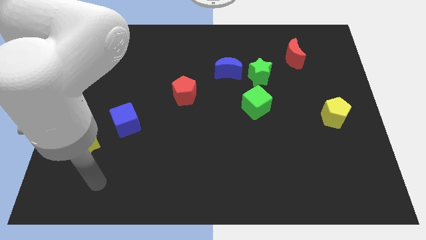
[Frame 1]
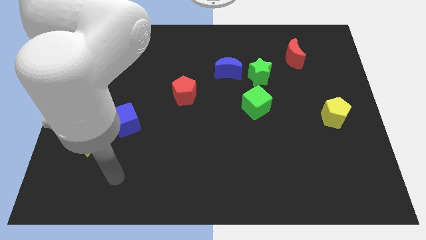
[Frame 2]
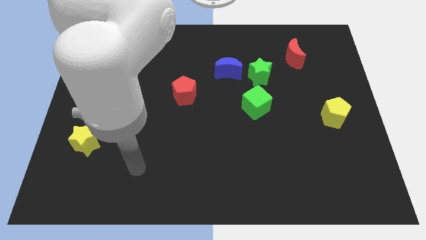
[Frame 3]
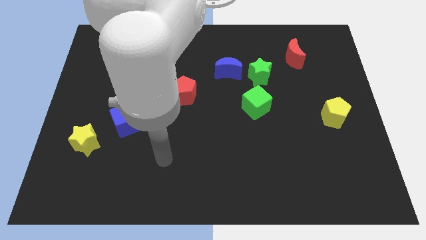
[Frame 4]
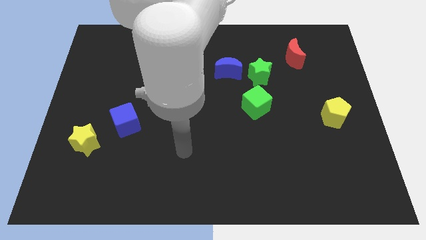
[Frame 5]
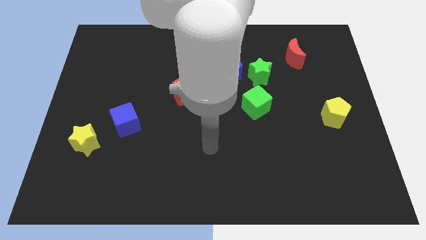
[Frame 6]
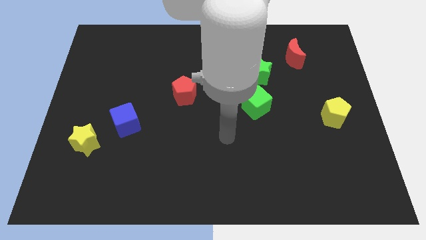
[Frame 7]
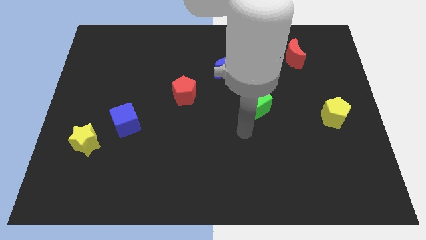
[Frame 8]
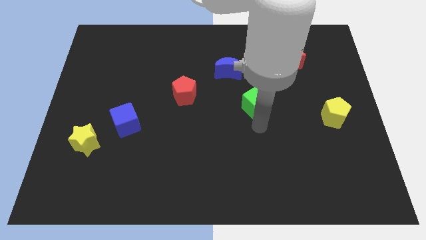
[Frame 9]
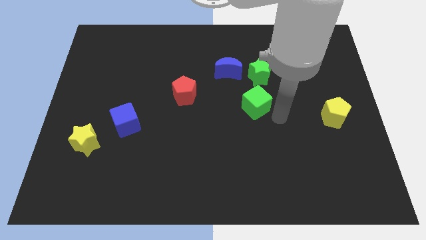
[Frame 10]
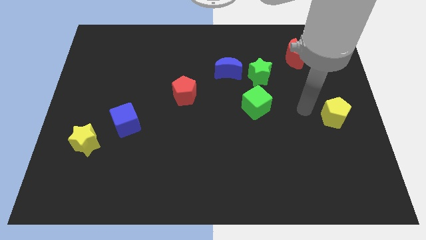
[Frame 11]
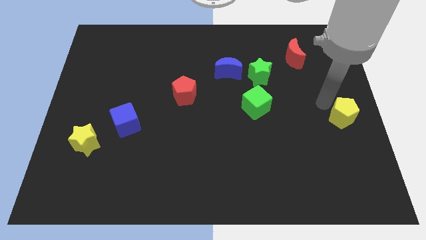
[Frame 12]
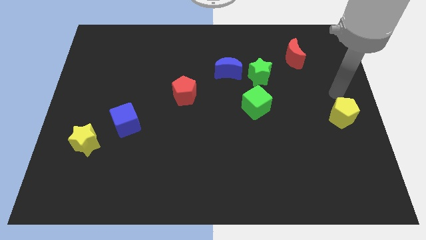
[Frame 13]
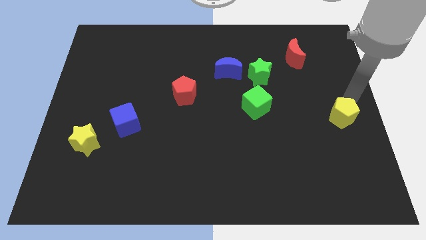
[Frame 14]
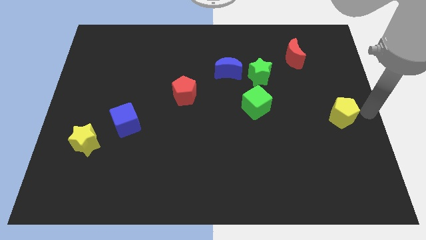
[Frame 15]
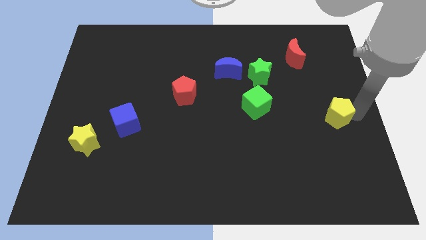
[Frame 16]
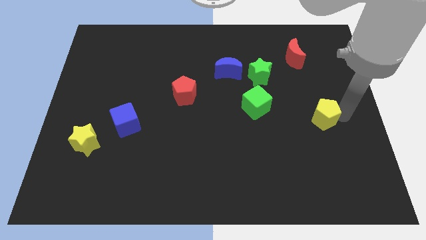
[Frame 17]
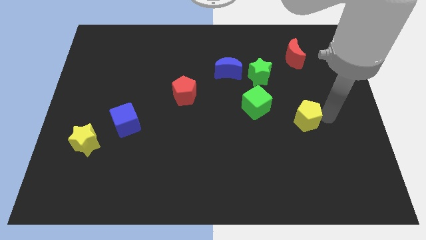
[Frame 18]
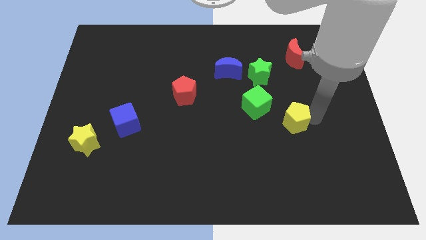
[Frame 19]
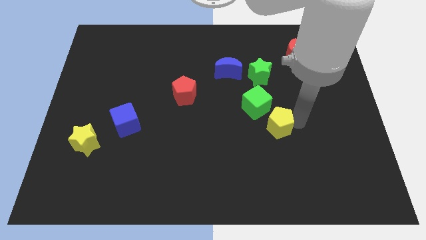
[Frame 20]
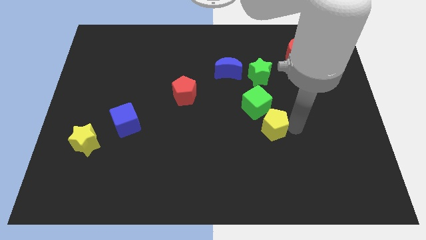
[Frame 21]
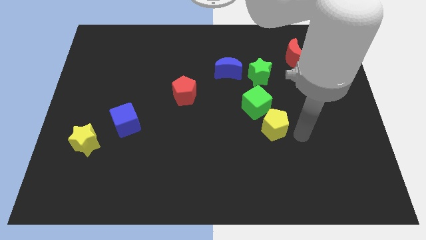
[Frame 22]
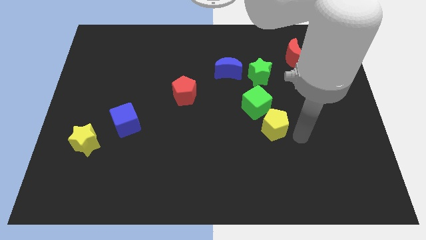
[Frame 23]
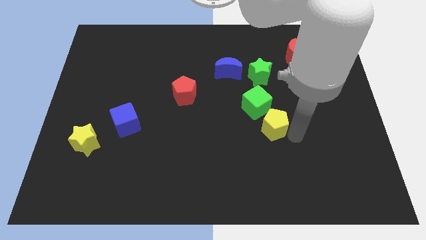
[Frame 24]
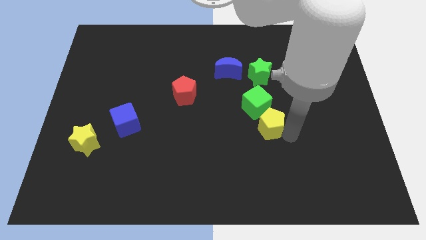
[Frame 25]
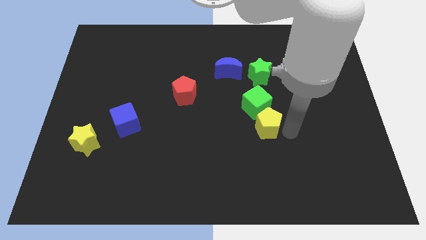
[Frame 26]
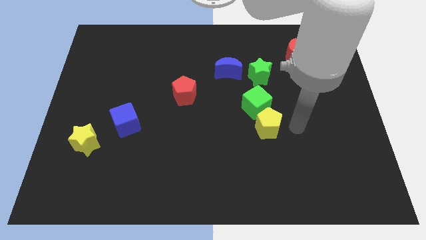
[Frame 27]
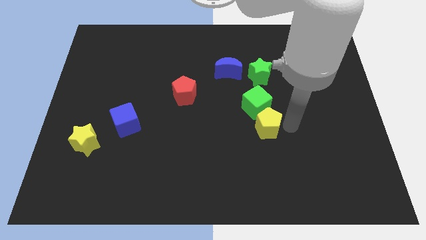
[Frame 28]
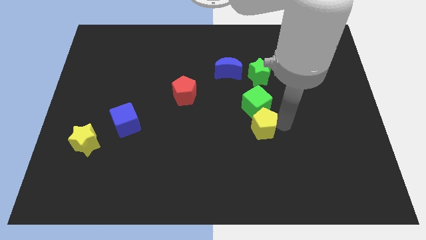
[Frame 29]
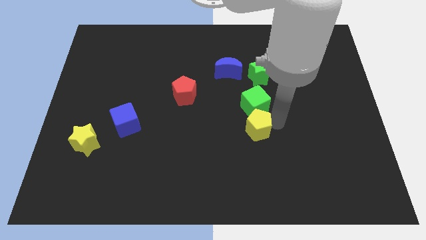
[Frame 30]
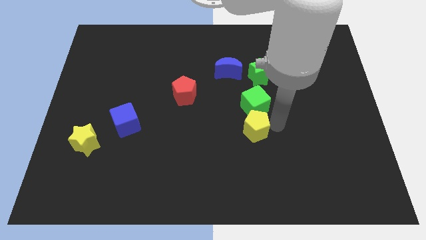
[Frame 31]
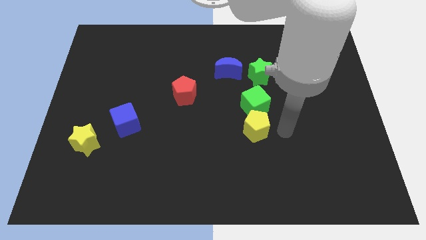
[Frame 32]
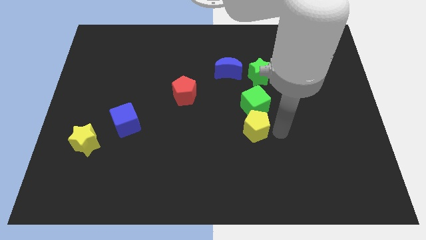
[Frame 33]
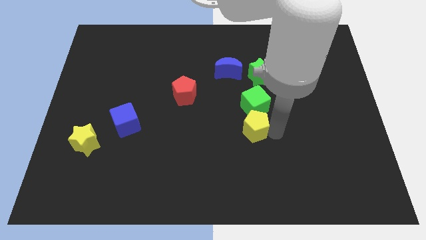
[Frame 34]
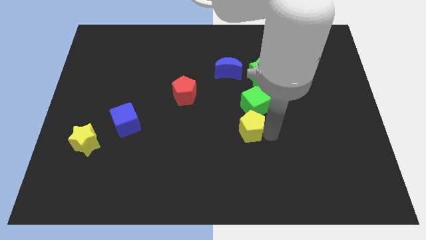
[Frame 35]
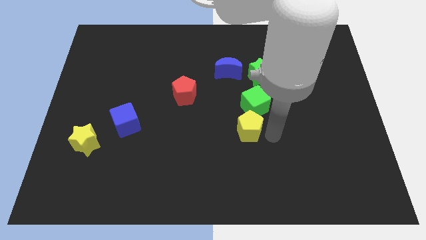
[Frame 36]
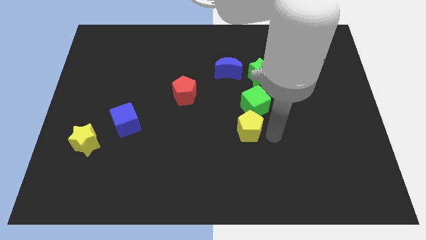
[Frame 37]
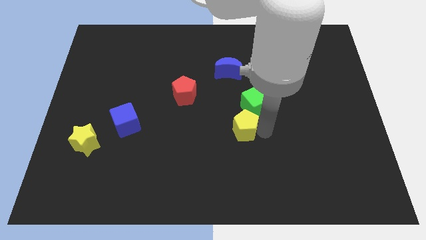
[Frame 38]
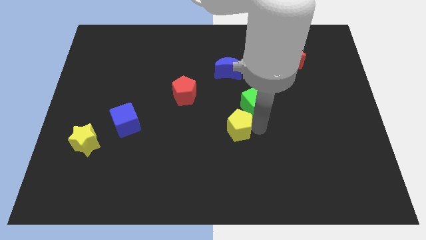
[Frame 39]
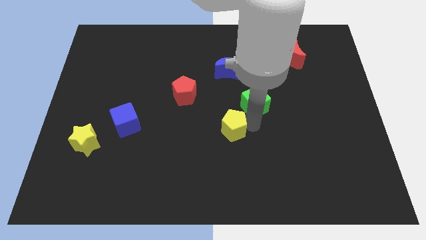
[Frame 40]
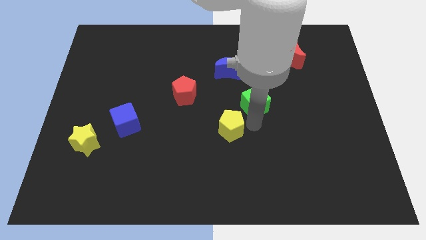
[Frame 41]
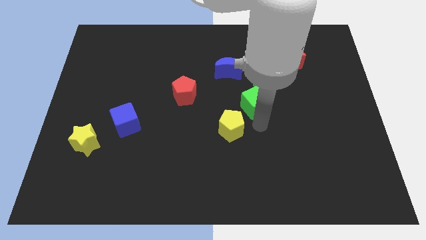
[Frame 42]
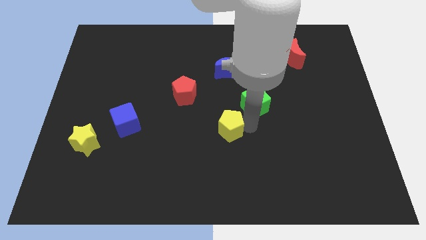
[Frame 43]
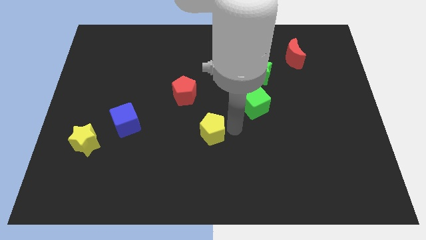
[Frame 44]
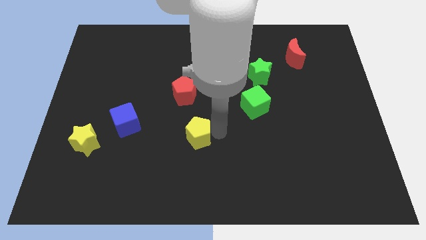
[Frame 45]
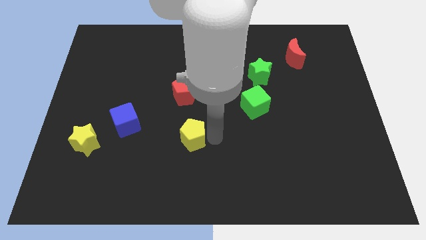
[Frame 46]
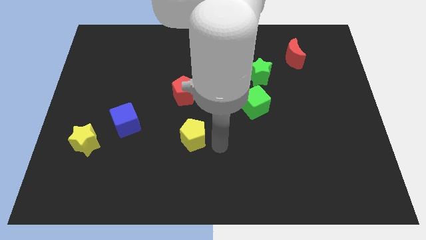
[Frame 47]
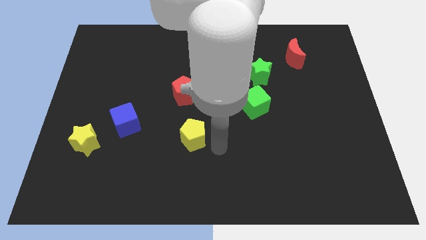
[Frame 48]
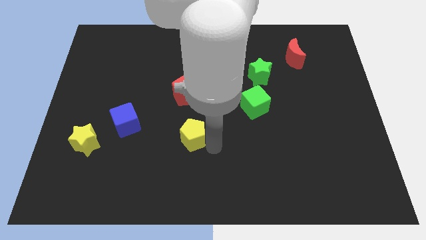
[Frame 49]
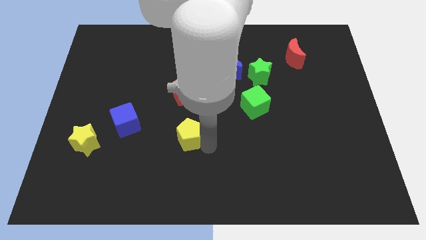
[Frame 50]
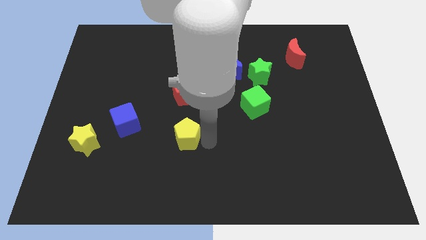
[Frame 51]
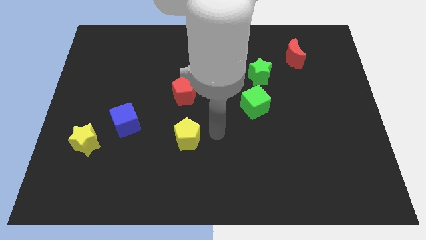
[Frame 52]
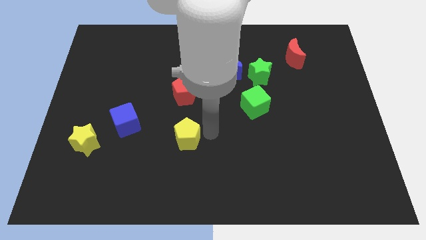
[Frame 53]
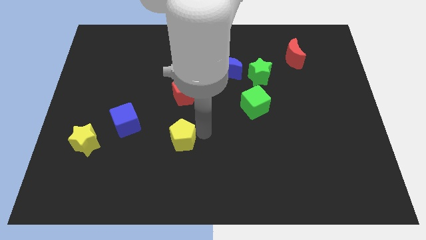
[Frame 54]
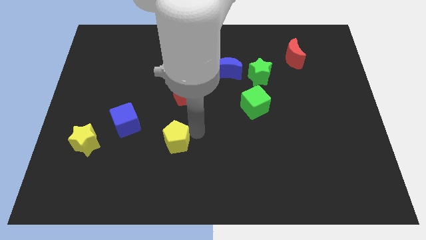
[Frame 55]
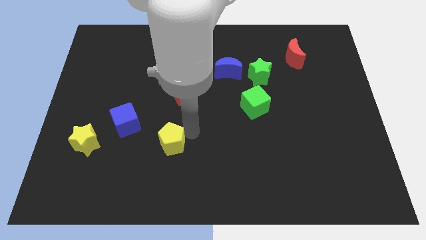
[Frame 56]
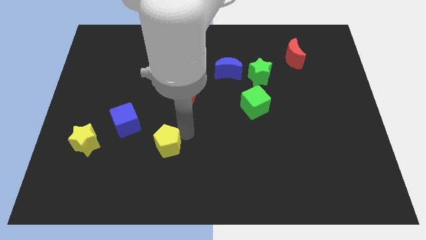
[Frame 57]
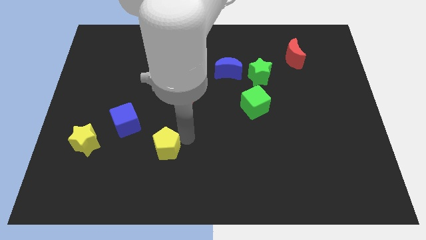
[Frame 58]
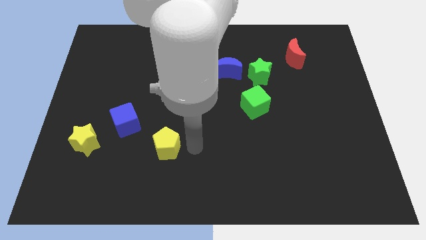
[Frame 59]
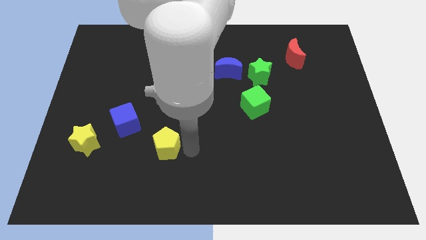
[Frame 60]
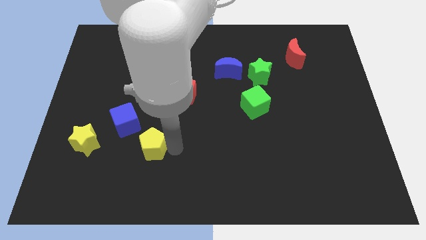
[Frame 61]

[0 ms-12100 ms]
push the yellow pentagon right of the yellow star

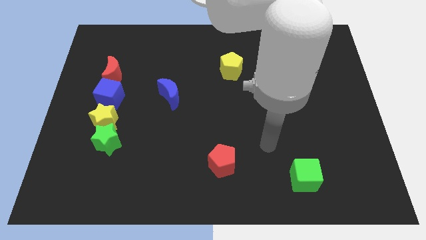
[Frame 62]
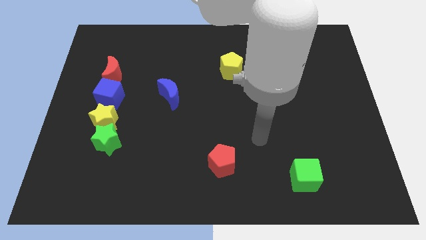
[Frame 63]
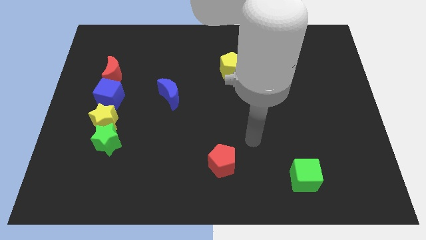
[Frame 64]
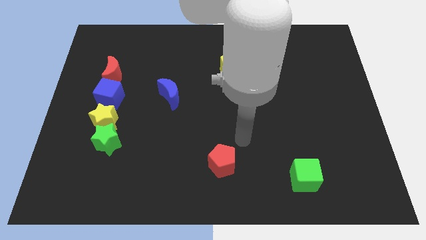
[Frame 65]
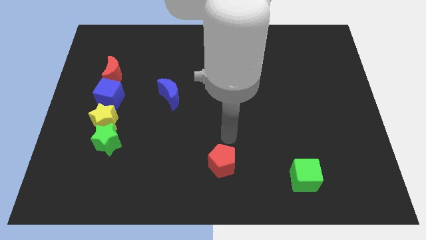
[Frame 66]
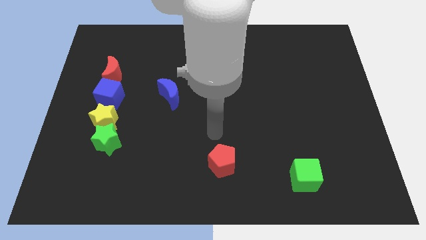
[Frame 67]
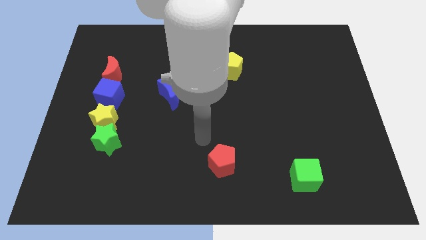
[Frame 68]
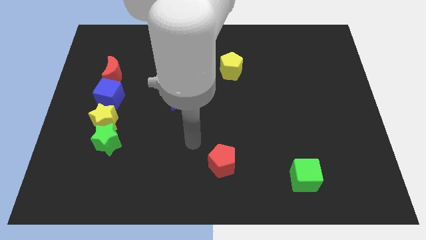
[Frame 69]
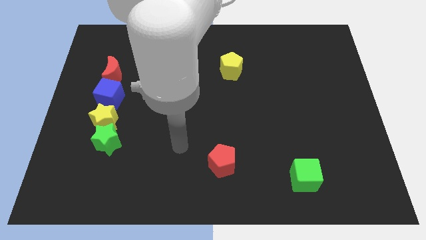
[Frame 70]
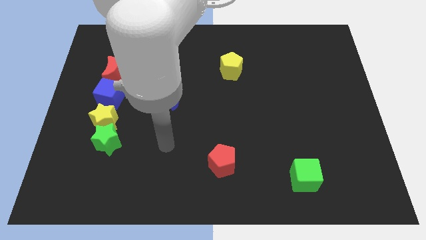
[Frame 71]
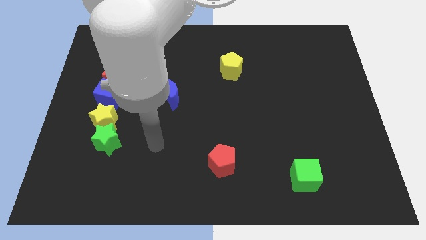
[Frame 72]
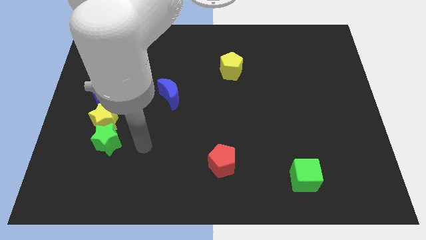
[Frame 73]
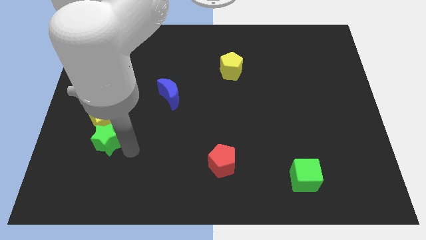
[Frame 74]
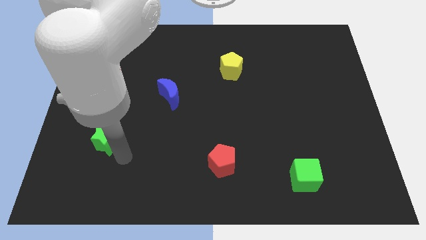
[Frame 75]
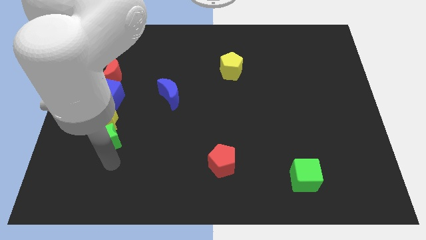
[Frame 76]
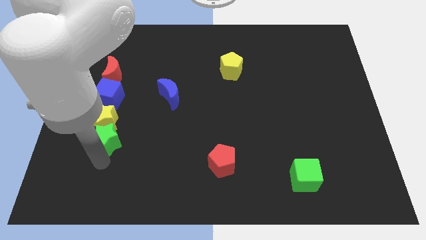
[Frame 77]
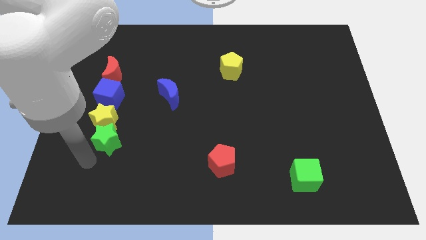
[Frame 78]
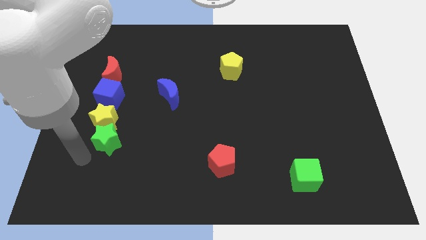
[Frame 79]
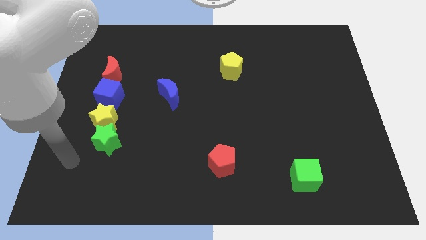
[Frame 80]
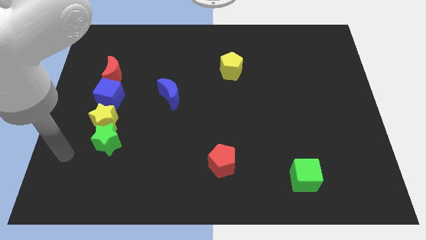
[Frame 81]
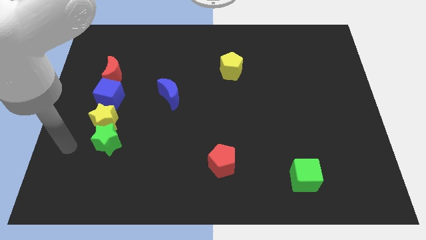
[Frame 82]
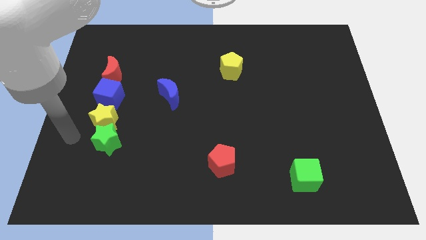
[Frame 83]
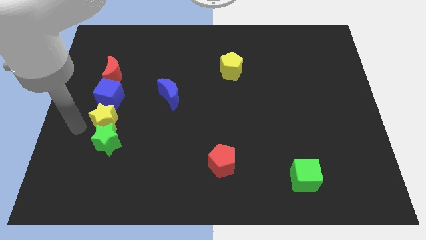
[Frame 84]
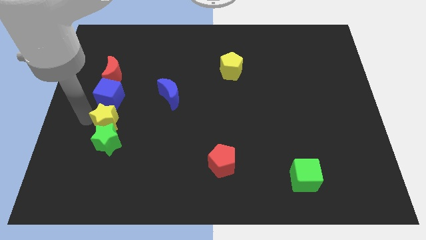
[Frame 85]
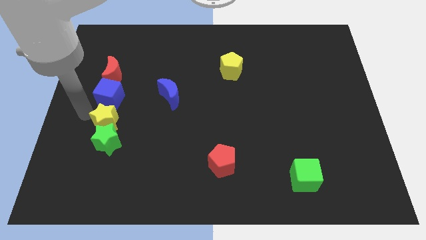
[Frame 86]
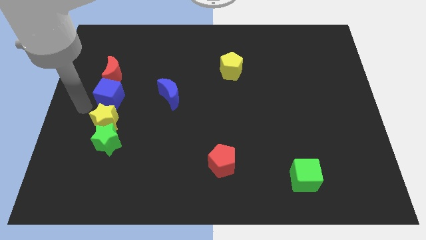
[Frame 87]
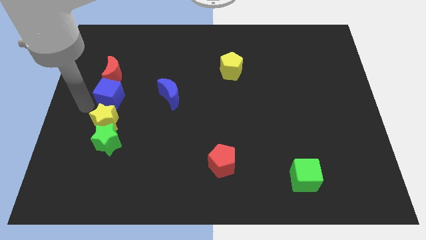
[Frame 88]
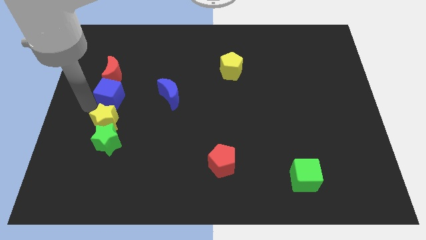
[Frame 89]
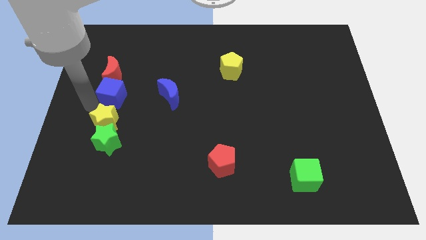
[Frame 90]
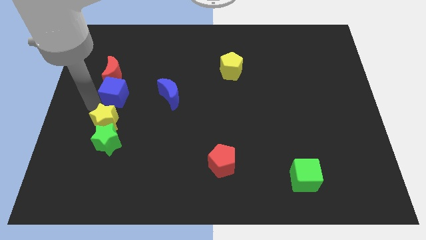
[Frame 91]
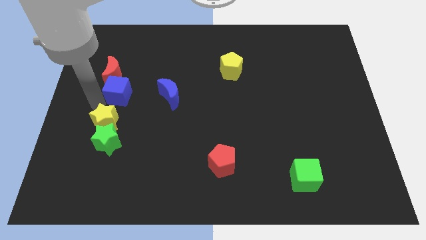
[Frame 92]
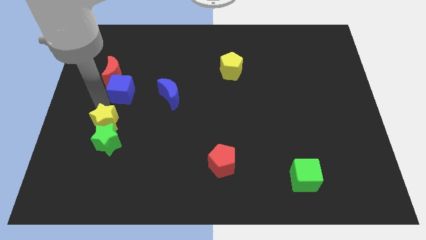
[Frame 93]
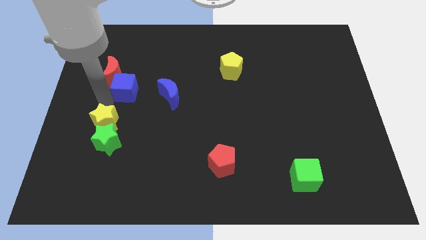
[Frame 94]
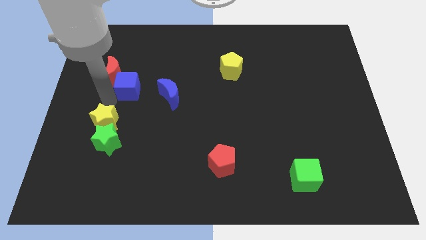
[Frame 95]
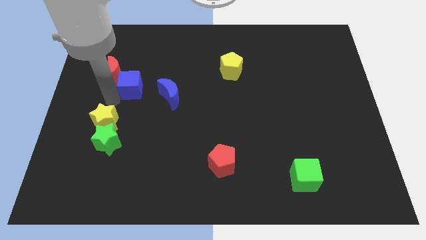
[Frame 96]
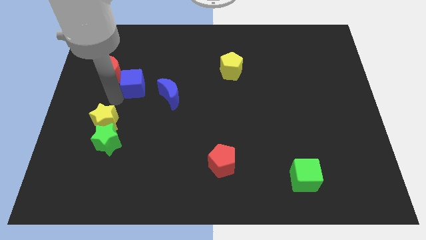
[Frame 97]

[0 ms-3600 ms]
put the blue cube to the top left side of the blue moon
